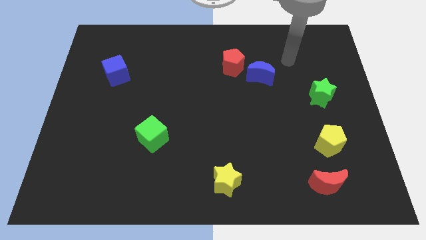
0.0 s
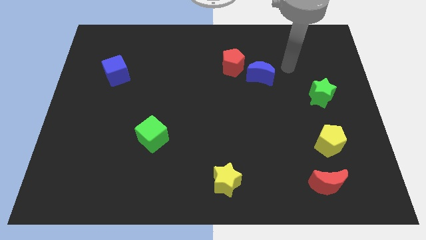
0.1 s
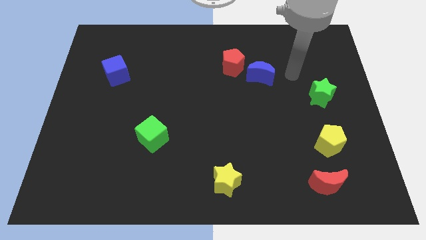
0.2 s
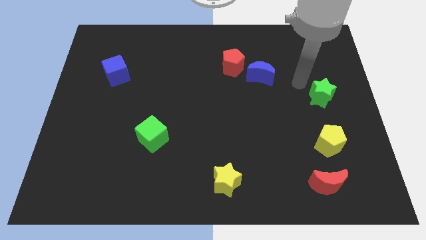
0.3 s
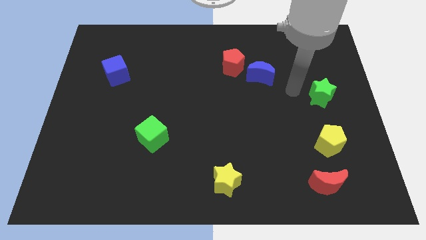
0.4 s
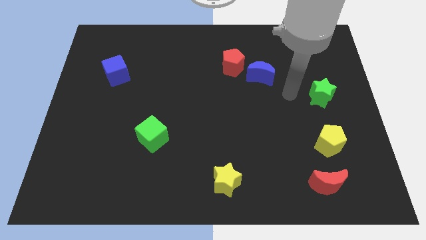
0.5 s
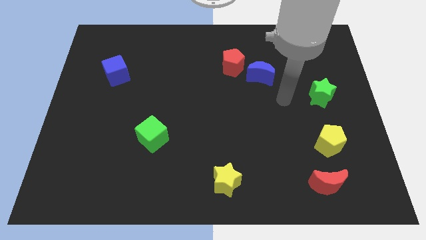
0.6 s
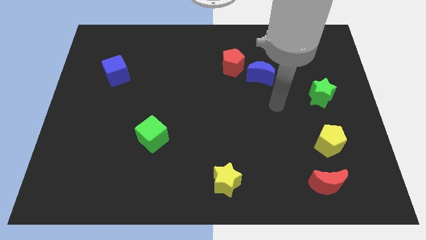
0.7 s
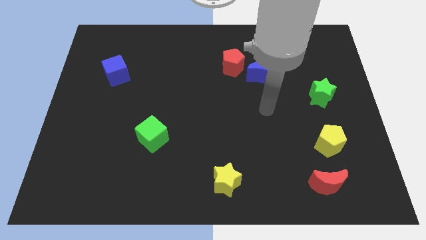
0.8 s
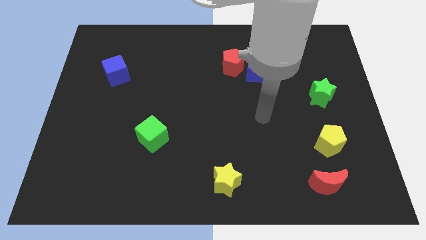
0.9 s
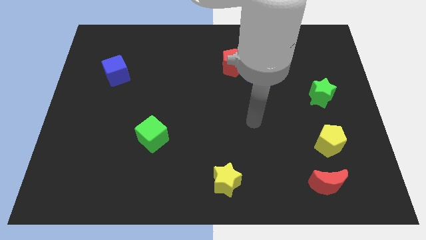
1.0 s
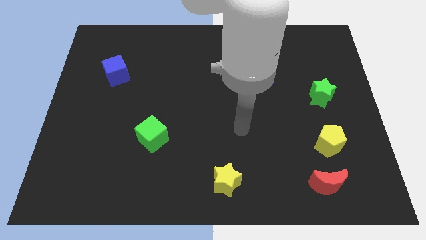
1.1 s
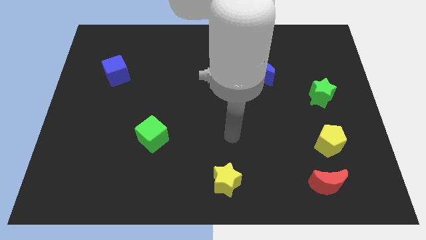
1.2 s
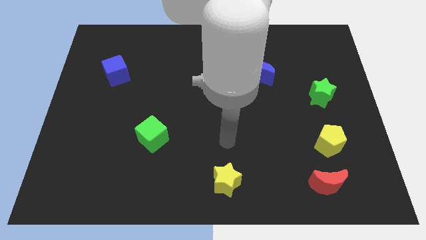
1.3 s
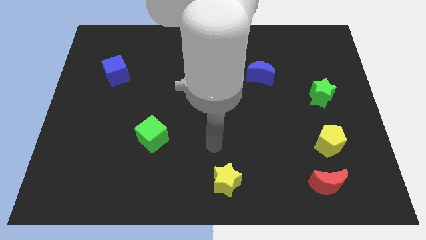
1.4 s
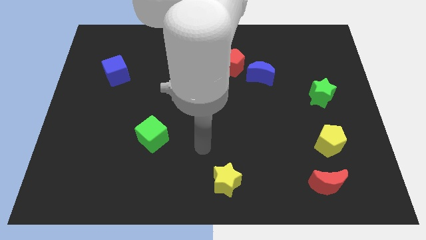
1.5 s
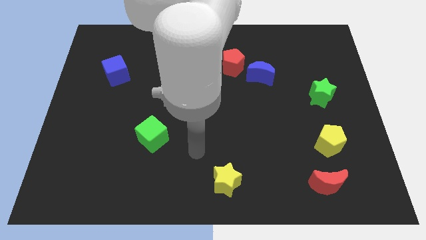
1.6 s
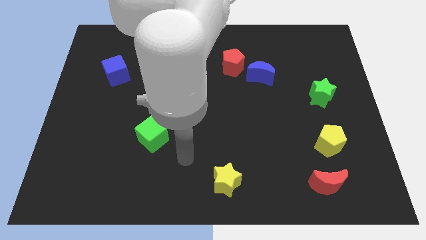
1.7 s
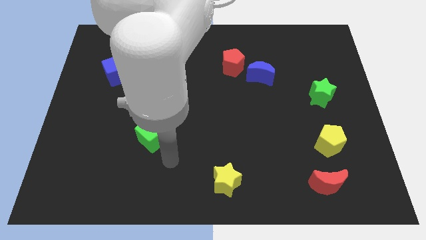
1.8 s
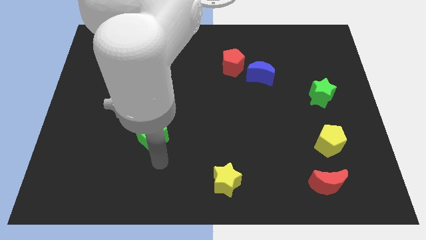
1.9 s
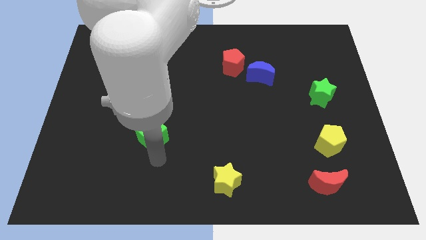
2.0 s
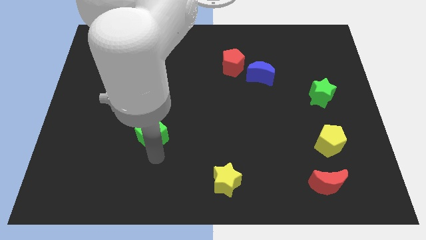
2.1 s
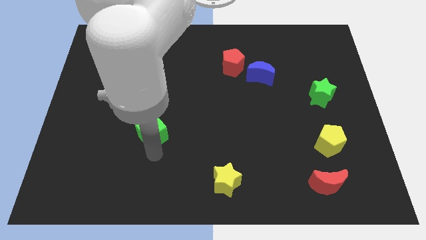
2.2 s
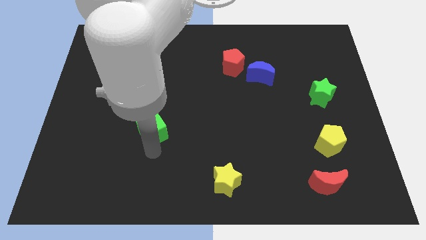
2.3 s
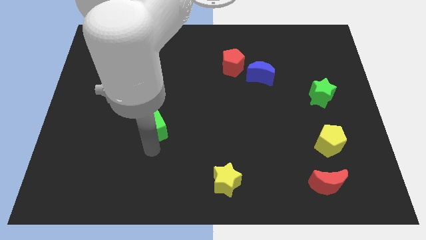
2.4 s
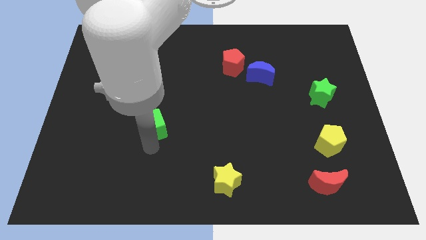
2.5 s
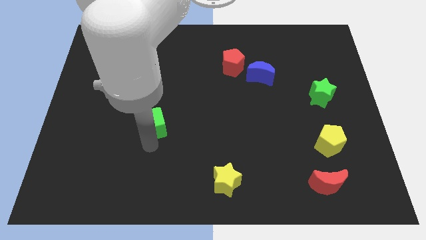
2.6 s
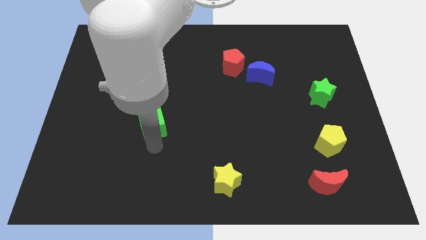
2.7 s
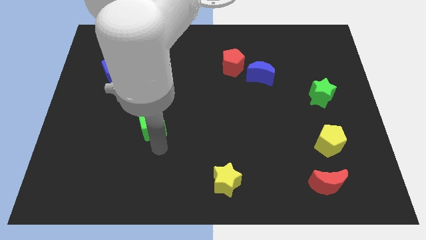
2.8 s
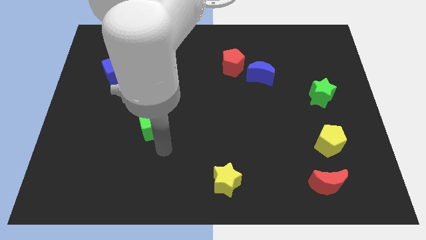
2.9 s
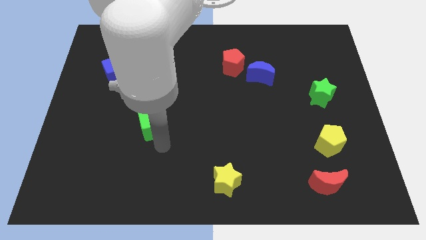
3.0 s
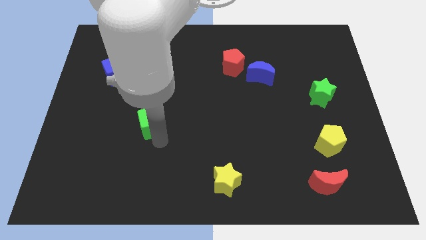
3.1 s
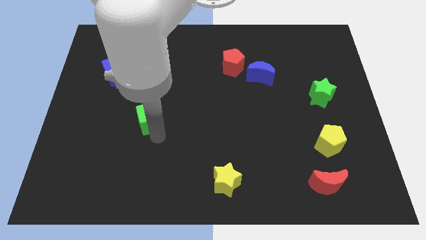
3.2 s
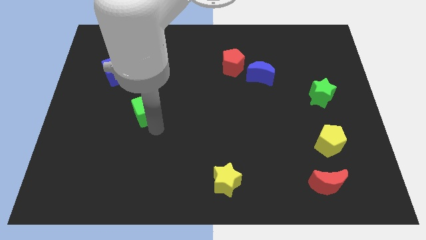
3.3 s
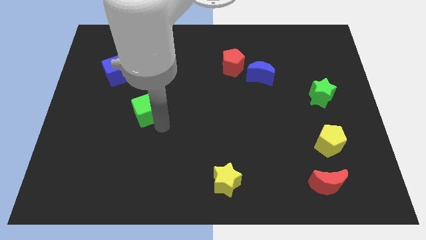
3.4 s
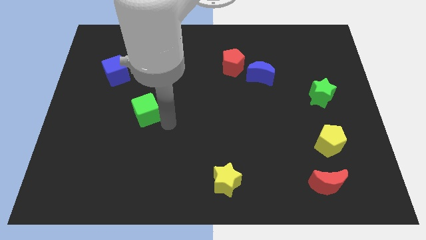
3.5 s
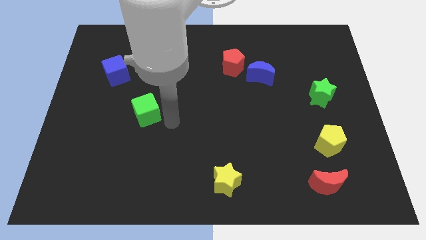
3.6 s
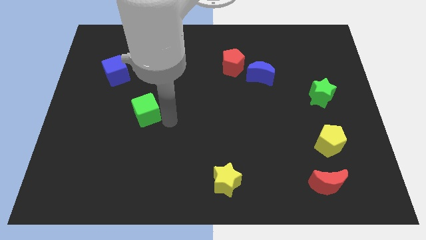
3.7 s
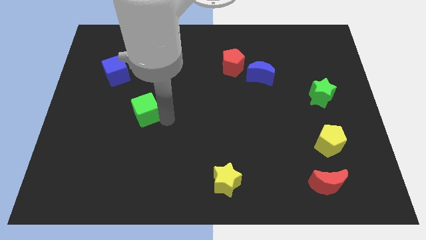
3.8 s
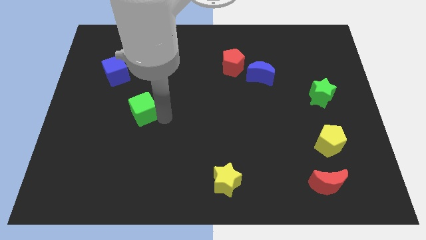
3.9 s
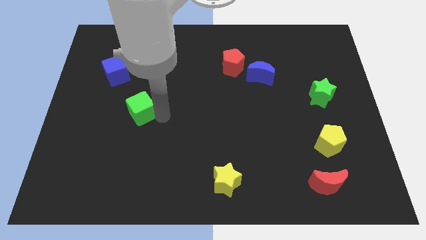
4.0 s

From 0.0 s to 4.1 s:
move the green cube diagonally up and to the left a bit

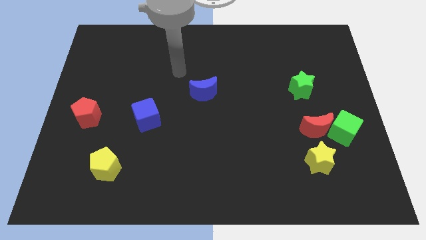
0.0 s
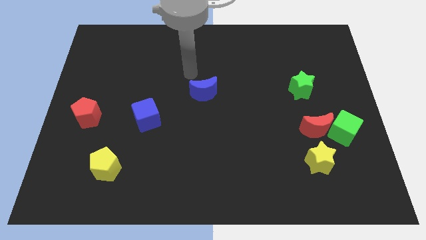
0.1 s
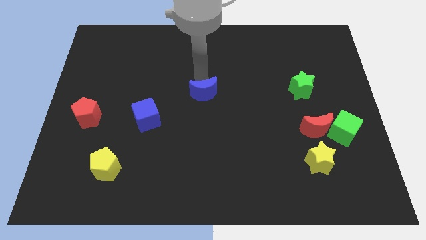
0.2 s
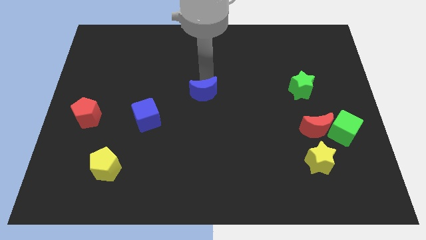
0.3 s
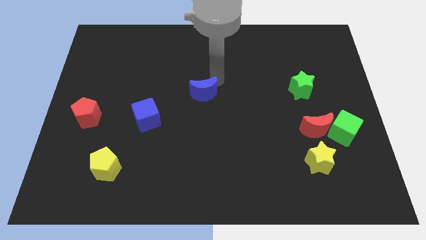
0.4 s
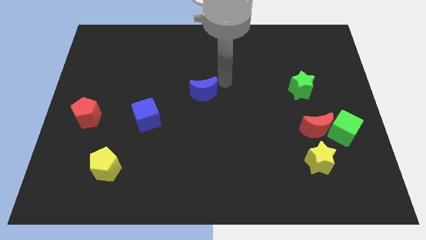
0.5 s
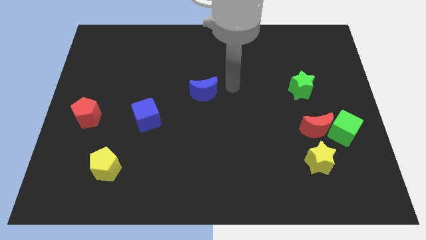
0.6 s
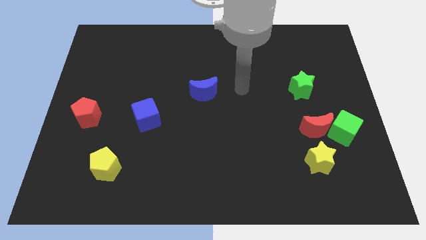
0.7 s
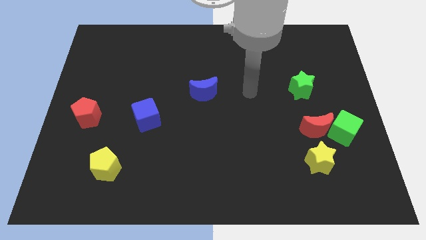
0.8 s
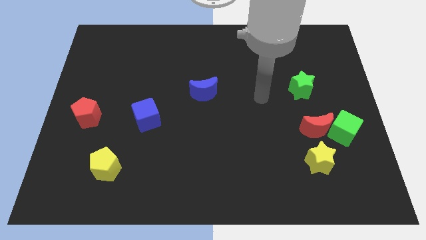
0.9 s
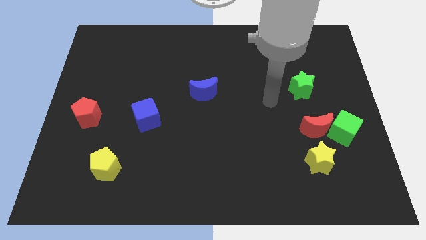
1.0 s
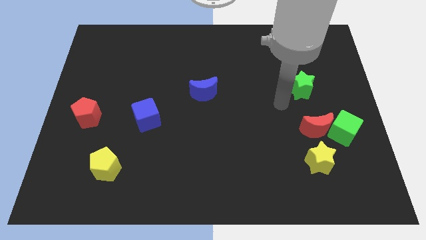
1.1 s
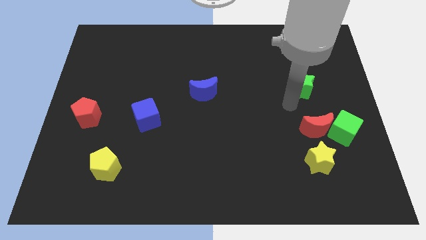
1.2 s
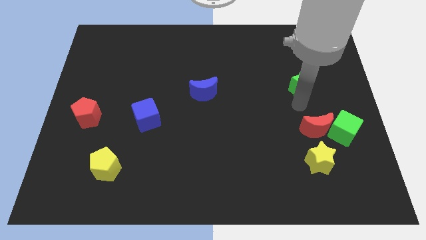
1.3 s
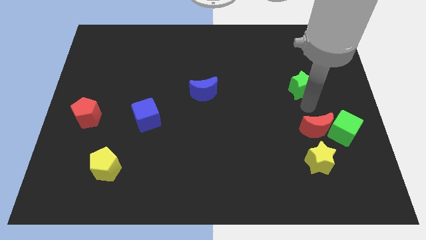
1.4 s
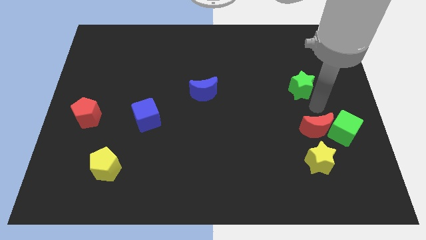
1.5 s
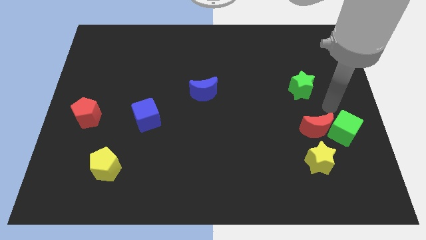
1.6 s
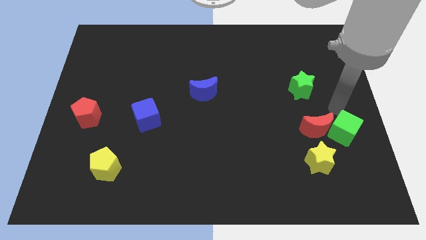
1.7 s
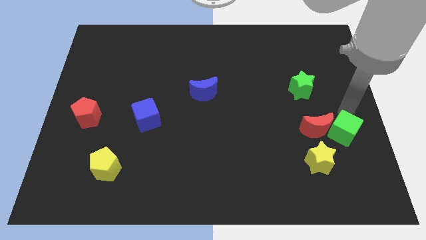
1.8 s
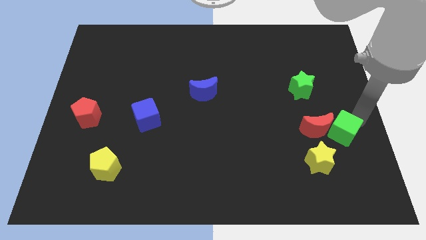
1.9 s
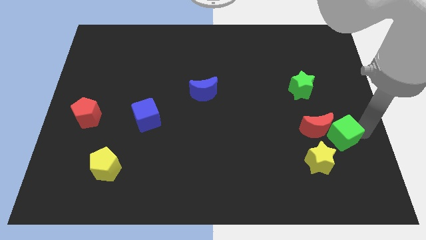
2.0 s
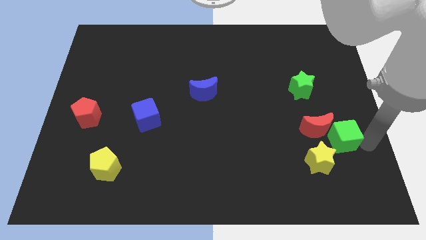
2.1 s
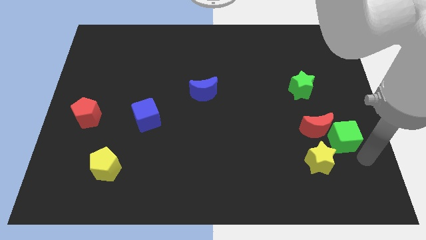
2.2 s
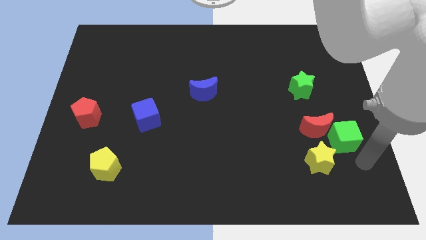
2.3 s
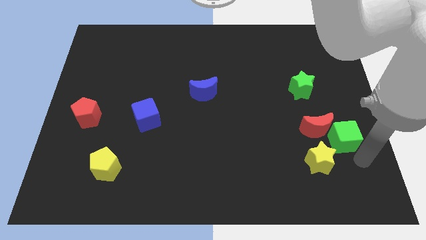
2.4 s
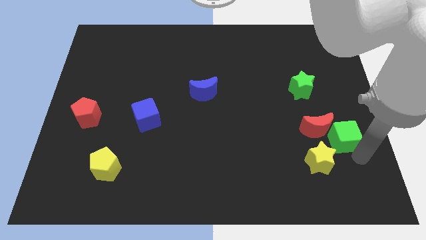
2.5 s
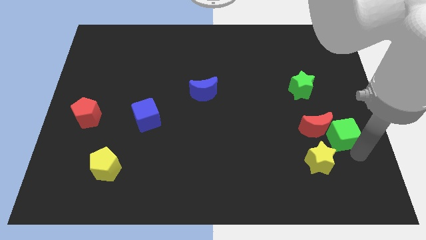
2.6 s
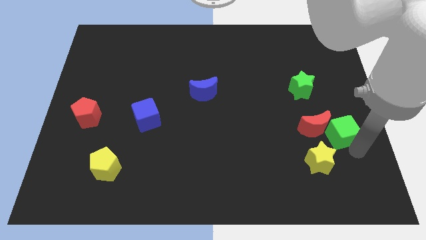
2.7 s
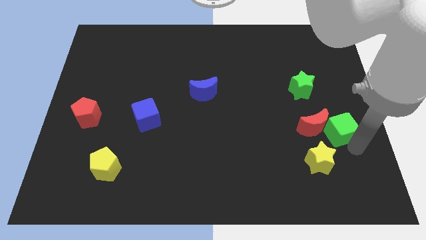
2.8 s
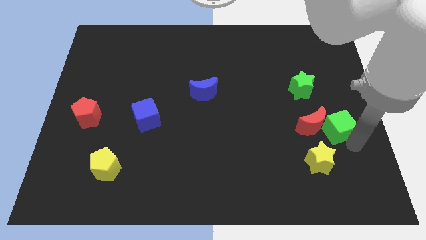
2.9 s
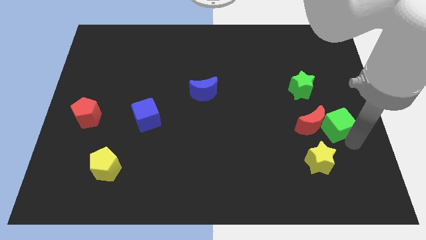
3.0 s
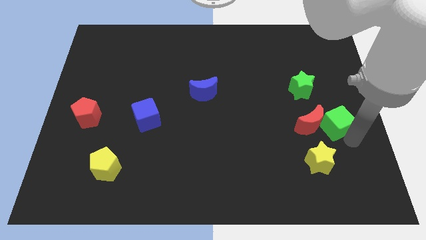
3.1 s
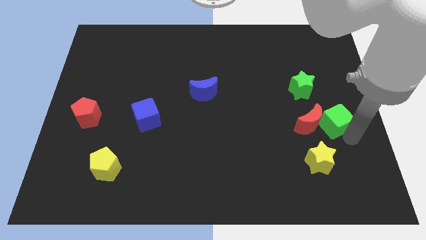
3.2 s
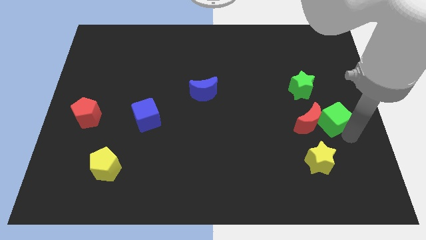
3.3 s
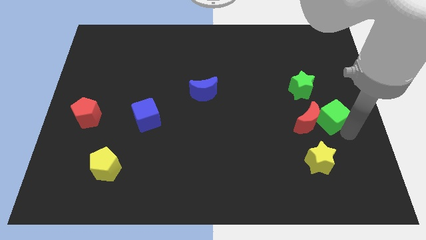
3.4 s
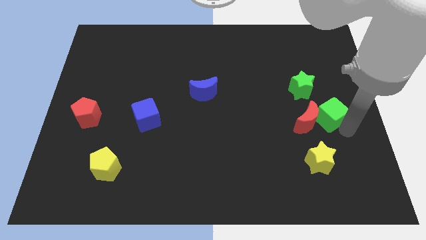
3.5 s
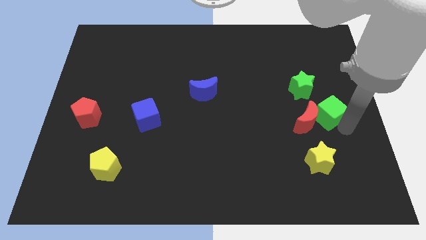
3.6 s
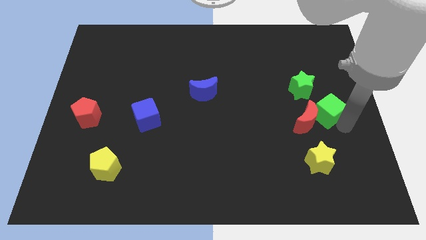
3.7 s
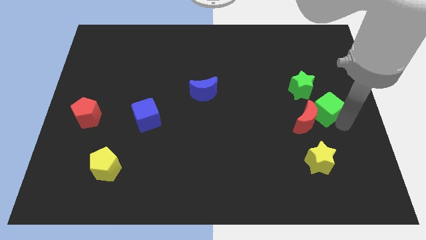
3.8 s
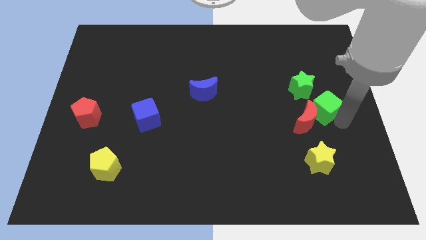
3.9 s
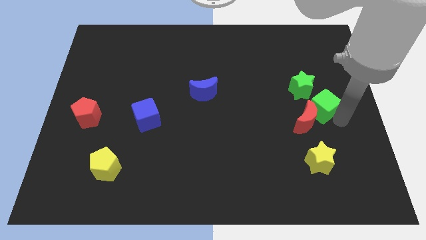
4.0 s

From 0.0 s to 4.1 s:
slightly move the green cube diagonally up and to the left

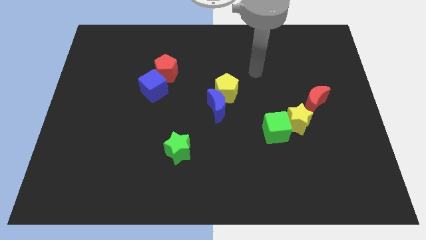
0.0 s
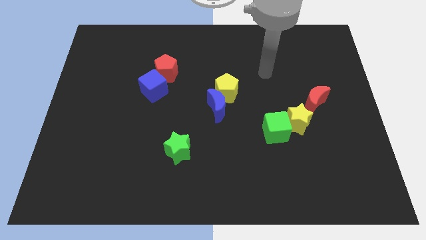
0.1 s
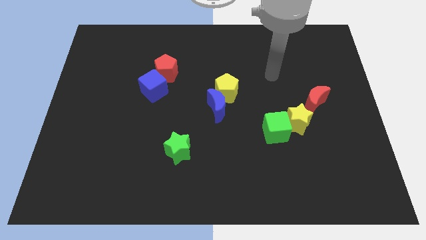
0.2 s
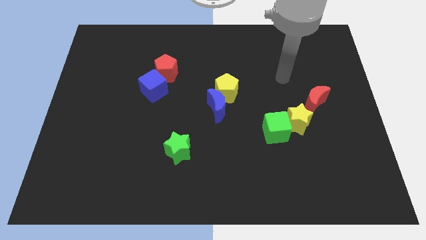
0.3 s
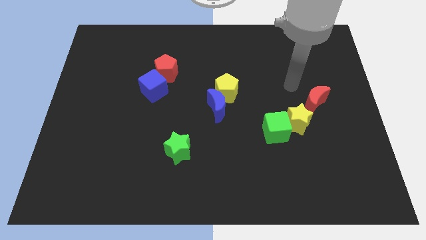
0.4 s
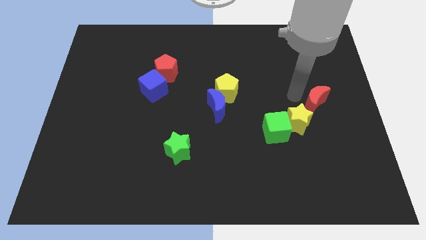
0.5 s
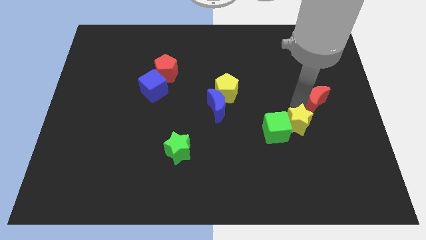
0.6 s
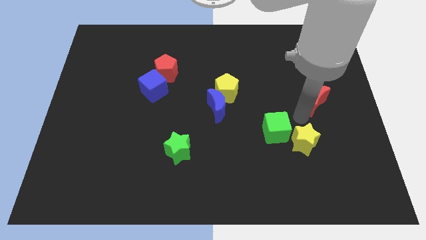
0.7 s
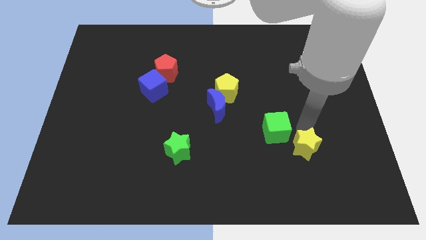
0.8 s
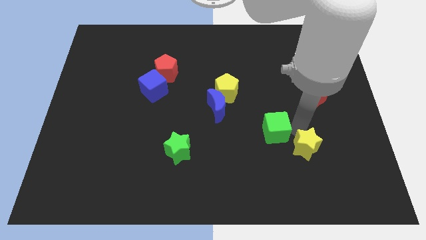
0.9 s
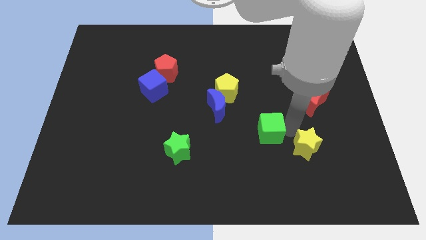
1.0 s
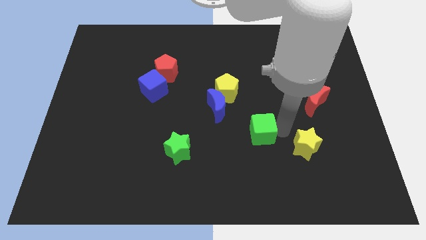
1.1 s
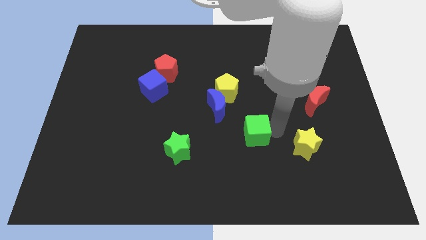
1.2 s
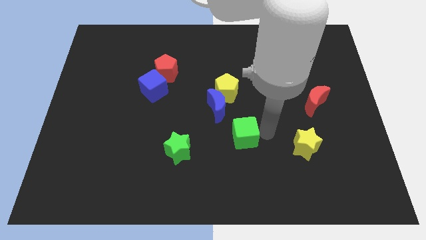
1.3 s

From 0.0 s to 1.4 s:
slightly move the green cube to the left
